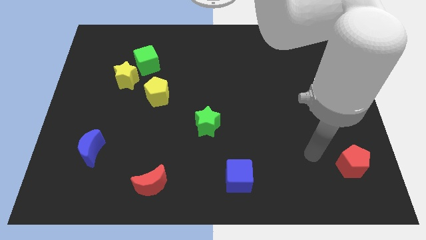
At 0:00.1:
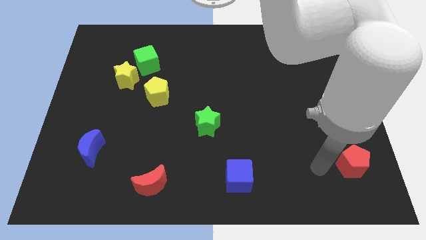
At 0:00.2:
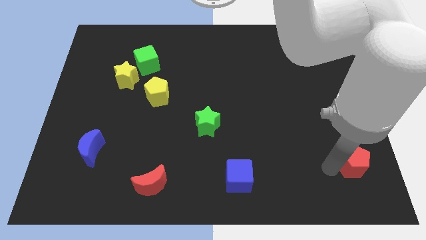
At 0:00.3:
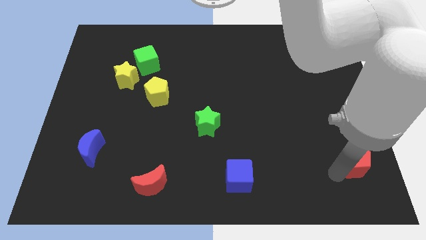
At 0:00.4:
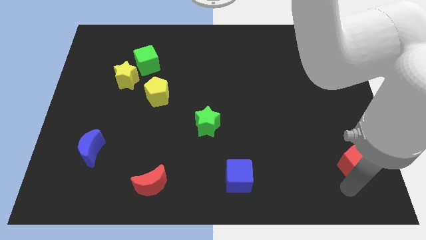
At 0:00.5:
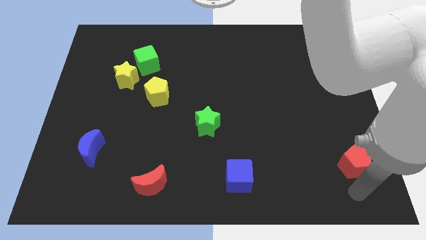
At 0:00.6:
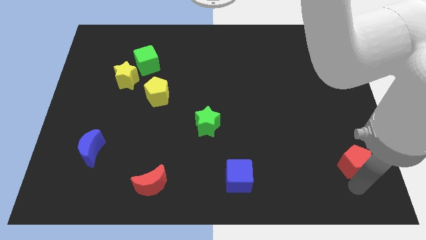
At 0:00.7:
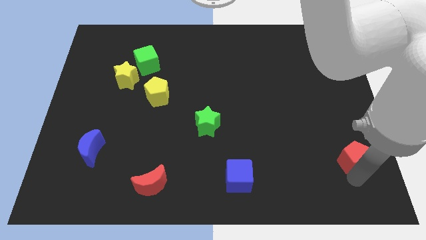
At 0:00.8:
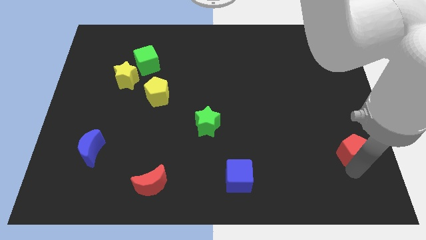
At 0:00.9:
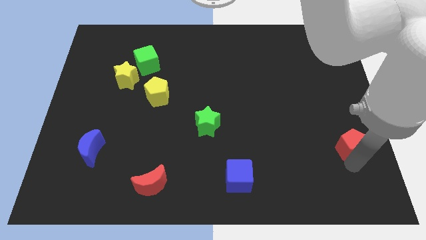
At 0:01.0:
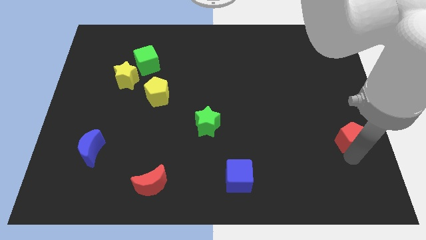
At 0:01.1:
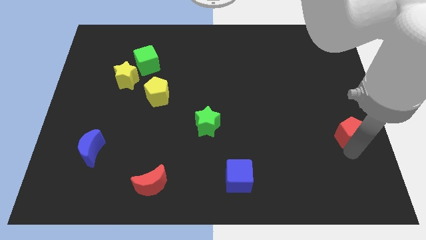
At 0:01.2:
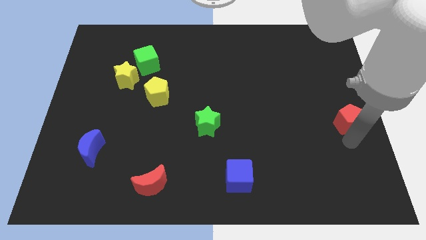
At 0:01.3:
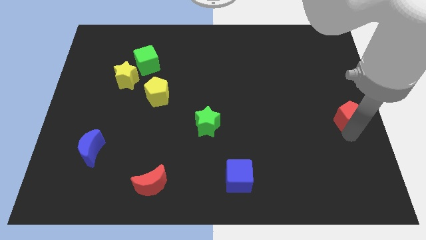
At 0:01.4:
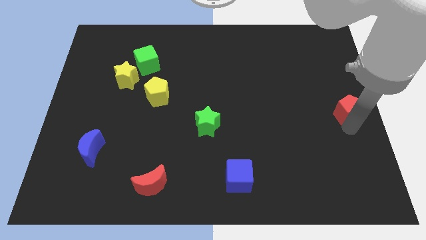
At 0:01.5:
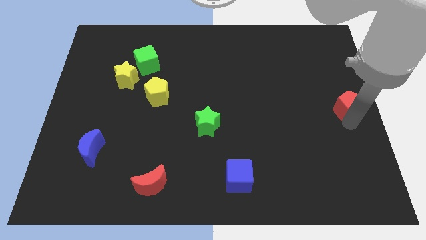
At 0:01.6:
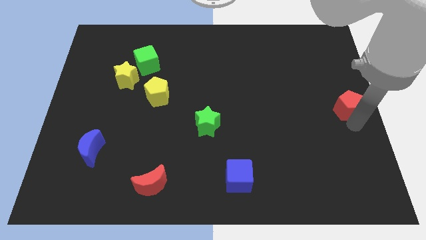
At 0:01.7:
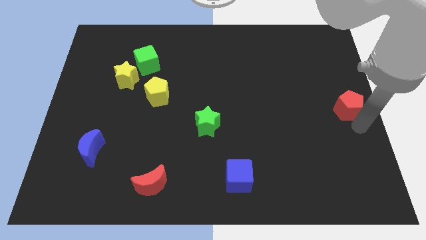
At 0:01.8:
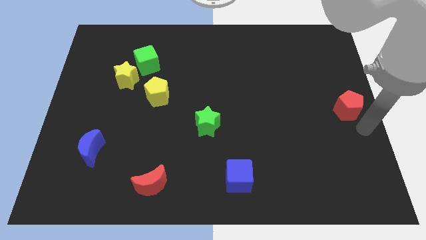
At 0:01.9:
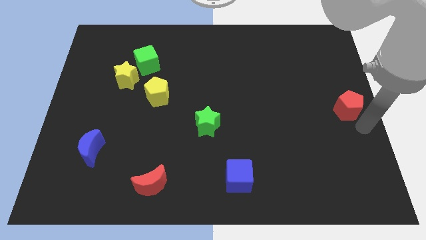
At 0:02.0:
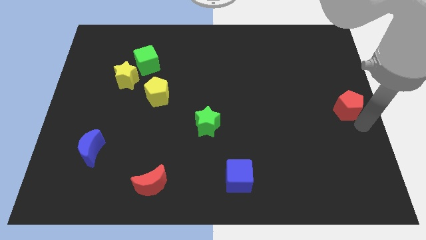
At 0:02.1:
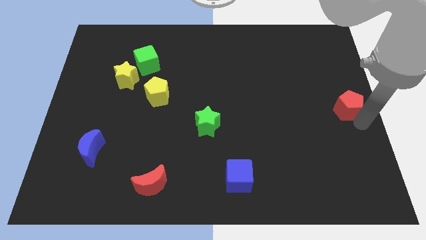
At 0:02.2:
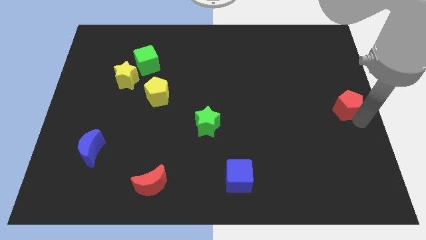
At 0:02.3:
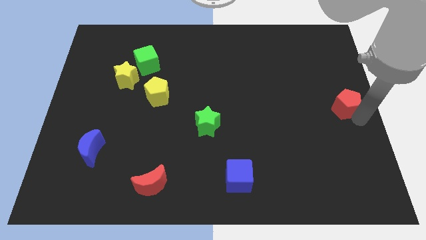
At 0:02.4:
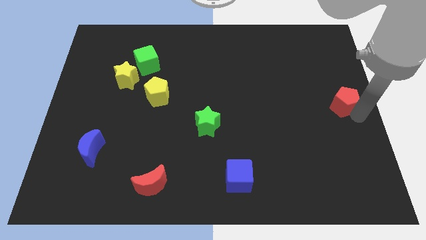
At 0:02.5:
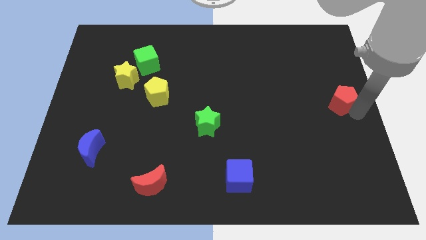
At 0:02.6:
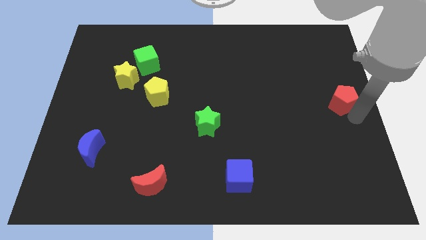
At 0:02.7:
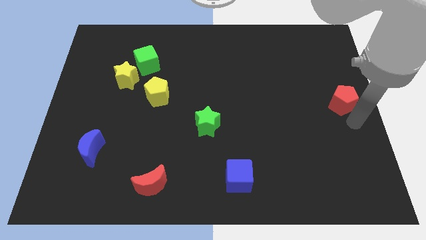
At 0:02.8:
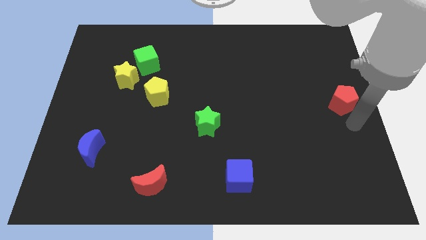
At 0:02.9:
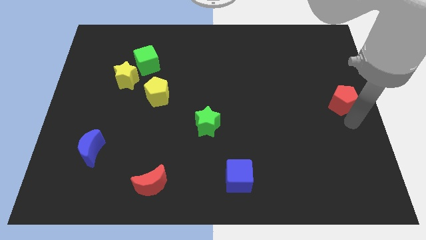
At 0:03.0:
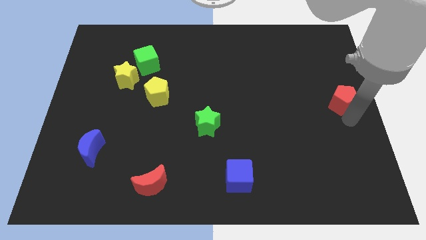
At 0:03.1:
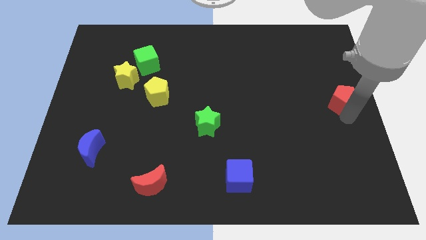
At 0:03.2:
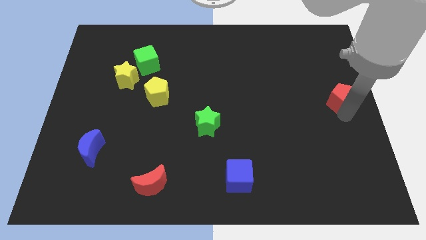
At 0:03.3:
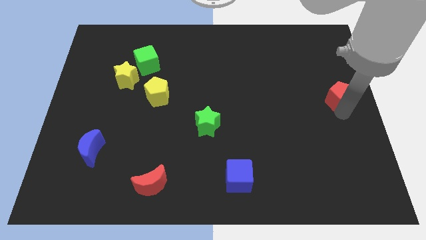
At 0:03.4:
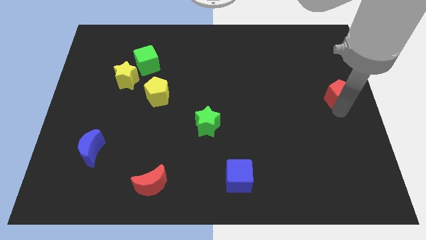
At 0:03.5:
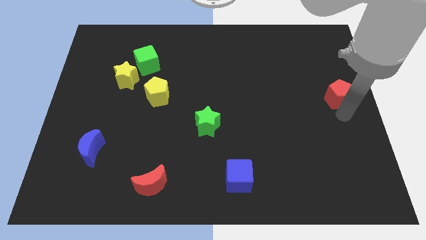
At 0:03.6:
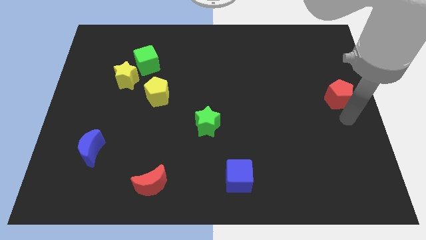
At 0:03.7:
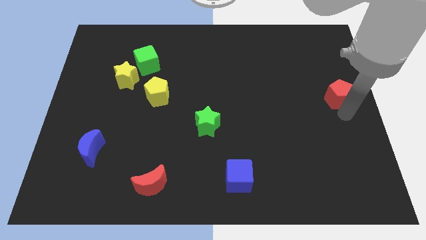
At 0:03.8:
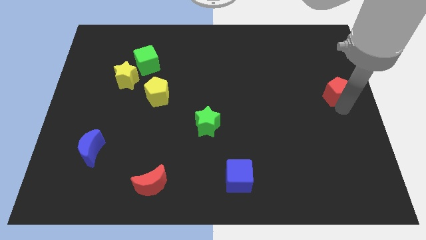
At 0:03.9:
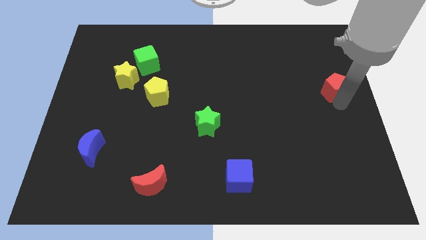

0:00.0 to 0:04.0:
slide the red pentagon up

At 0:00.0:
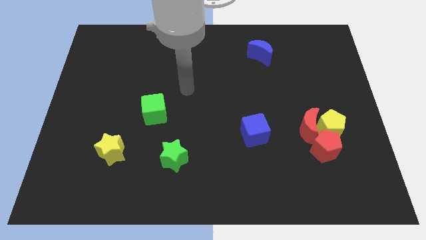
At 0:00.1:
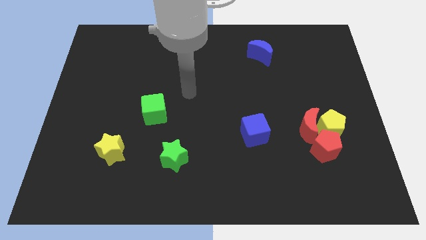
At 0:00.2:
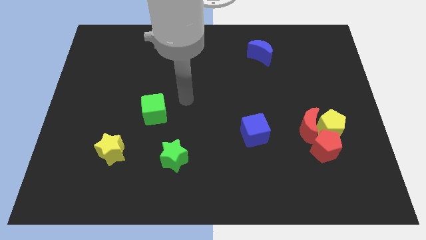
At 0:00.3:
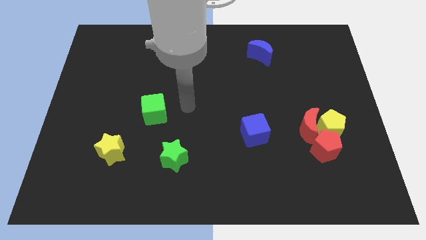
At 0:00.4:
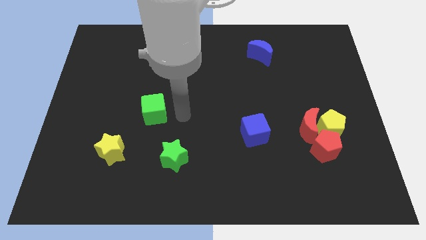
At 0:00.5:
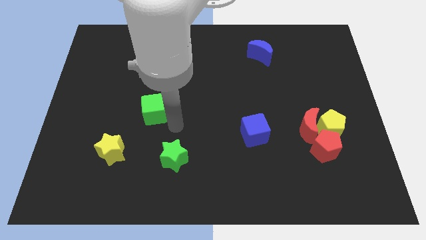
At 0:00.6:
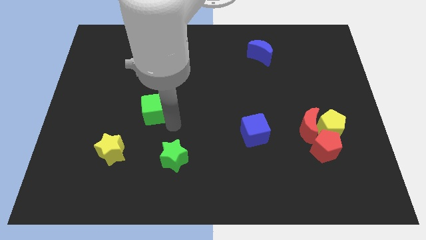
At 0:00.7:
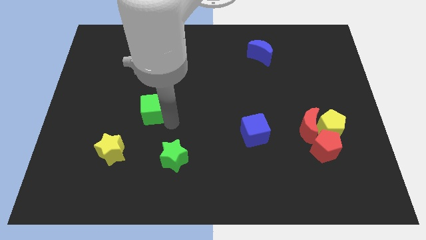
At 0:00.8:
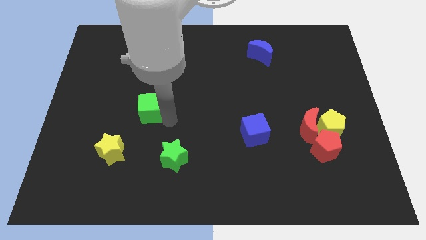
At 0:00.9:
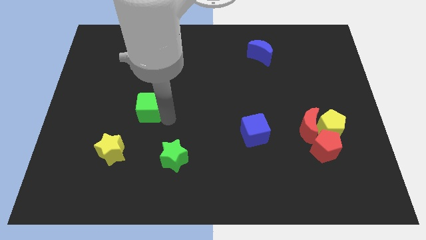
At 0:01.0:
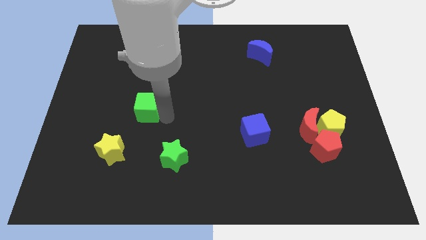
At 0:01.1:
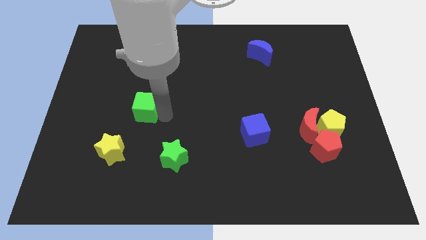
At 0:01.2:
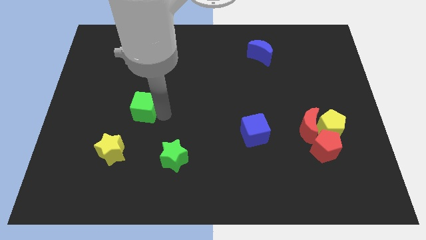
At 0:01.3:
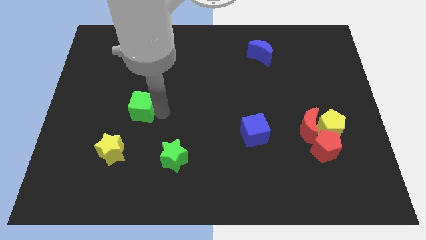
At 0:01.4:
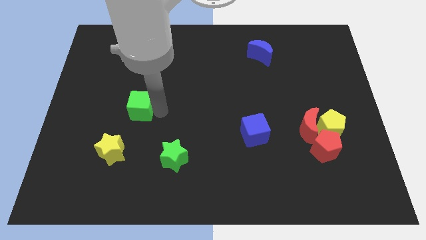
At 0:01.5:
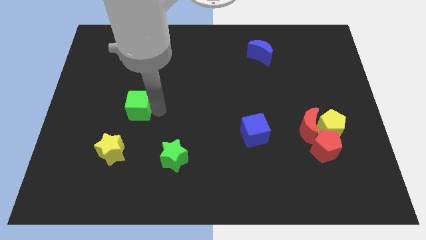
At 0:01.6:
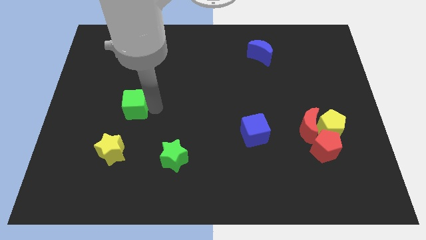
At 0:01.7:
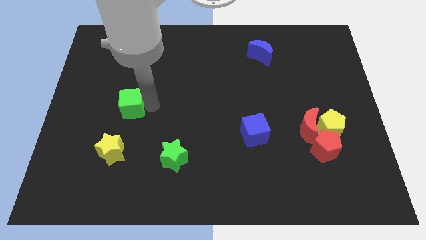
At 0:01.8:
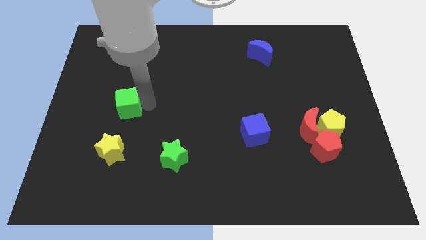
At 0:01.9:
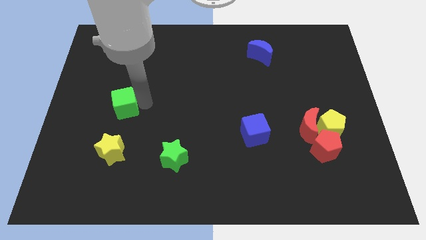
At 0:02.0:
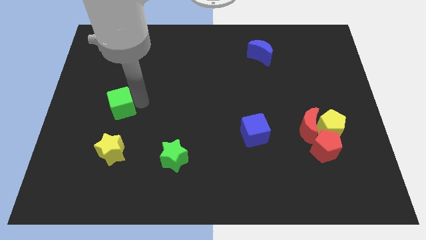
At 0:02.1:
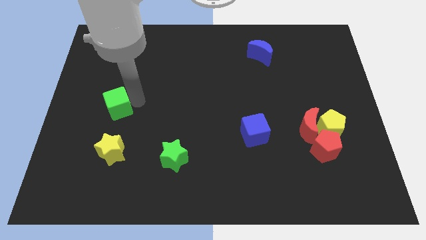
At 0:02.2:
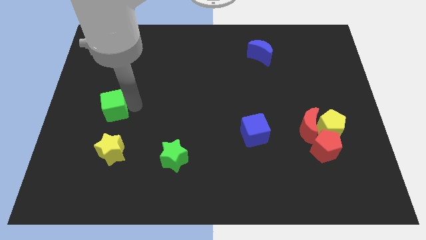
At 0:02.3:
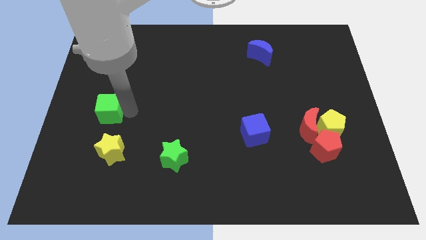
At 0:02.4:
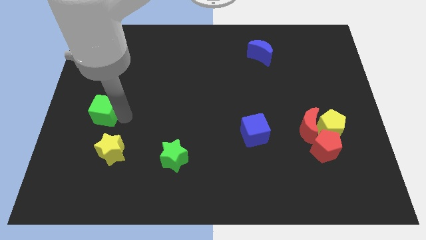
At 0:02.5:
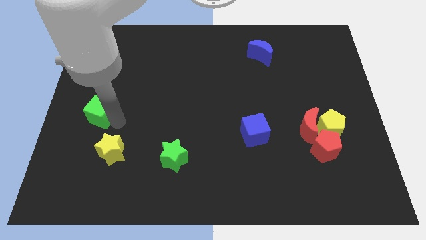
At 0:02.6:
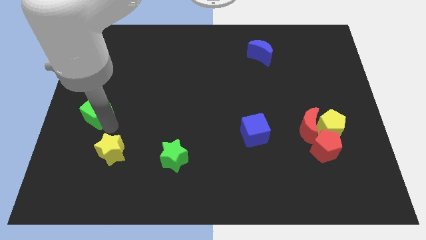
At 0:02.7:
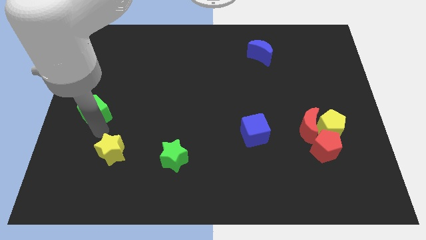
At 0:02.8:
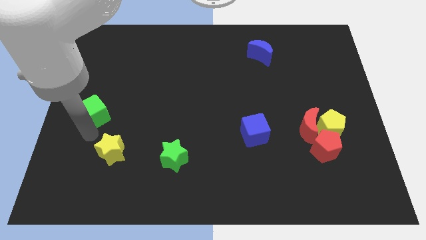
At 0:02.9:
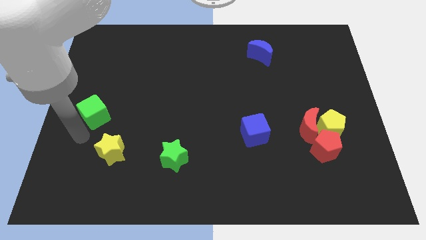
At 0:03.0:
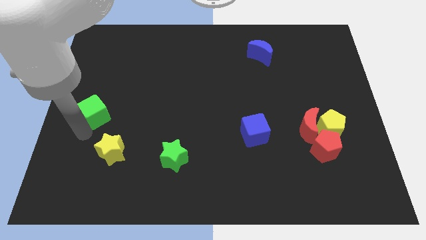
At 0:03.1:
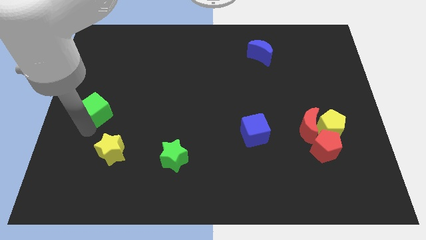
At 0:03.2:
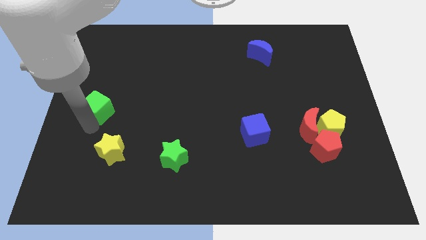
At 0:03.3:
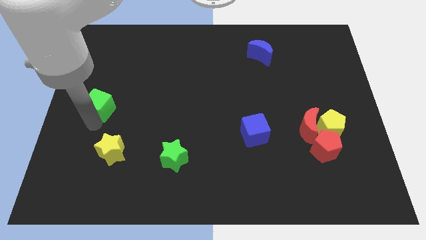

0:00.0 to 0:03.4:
push the green cube somewhat up and left

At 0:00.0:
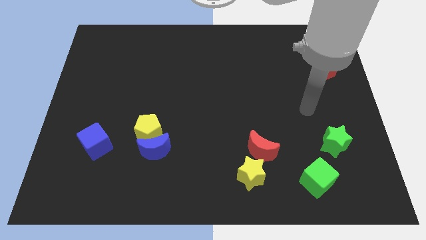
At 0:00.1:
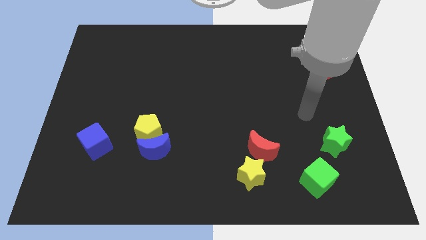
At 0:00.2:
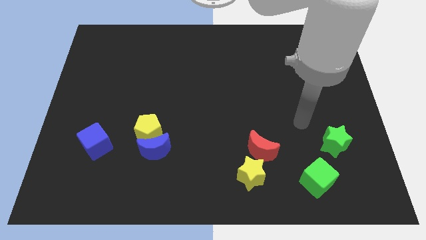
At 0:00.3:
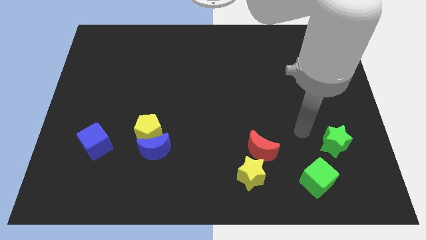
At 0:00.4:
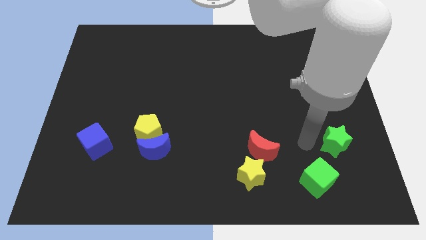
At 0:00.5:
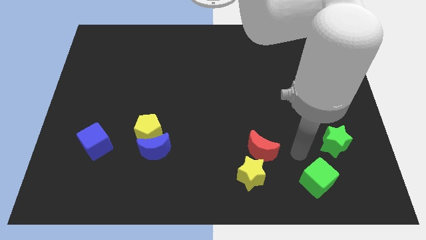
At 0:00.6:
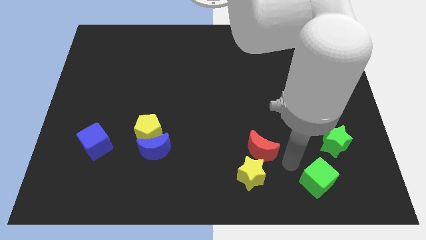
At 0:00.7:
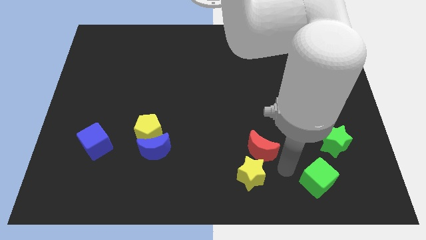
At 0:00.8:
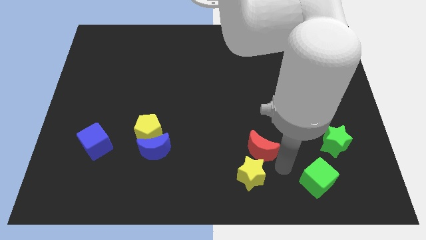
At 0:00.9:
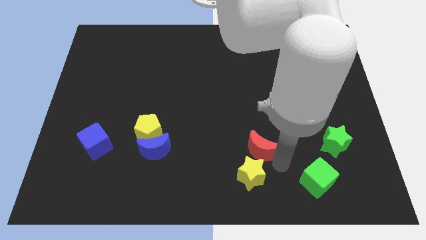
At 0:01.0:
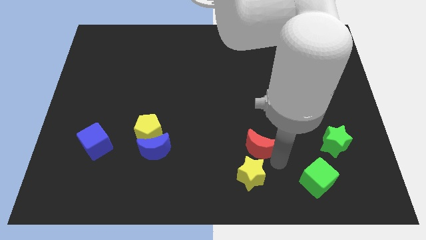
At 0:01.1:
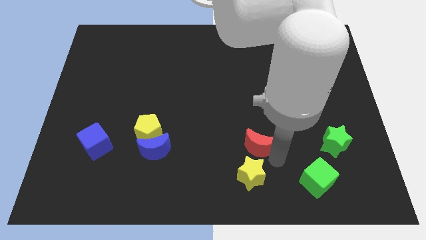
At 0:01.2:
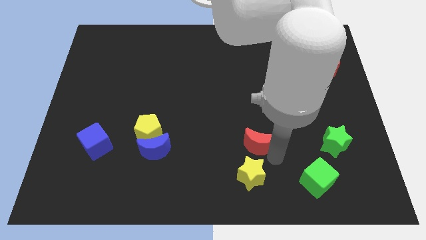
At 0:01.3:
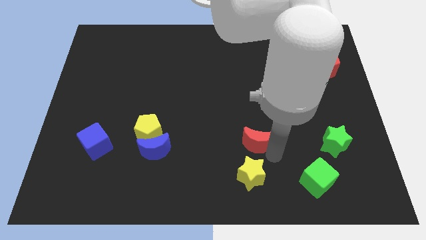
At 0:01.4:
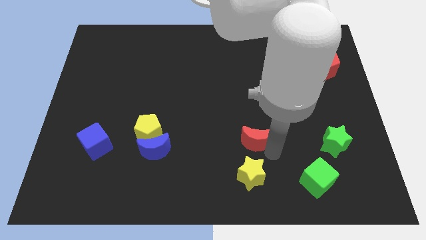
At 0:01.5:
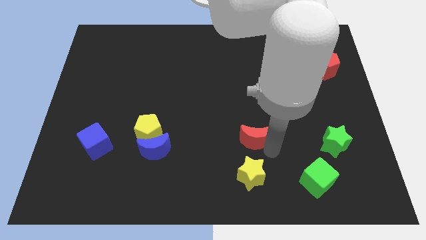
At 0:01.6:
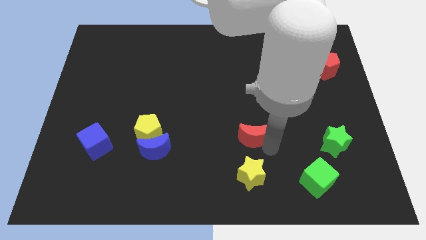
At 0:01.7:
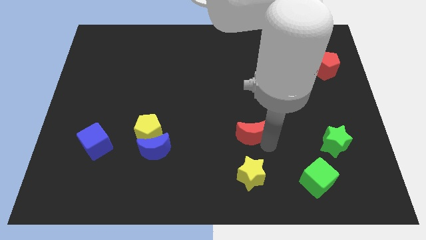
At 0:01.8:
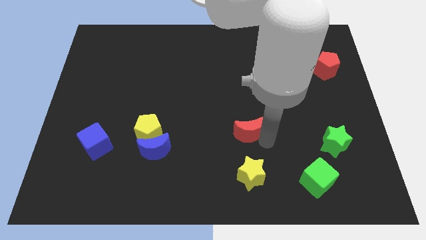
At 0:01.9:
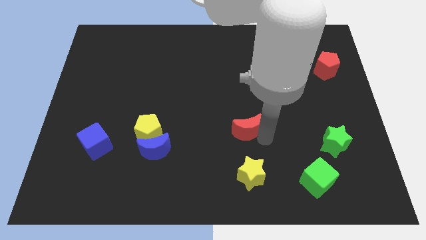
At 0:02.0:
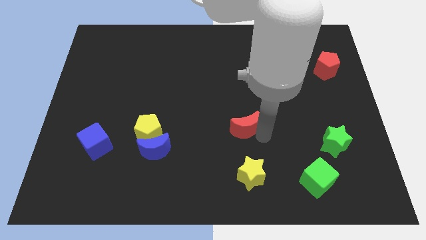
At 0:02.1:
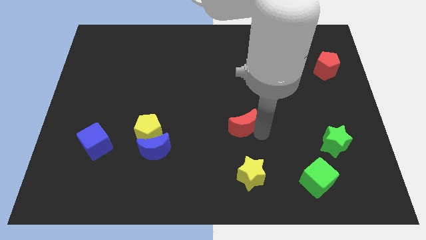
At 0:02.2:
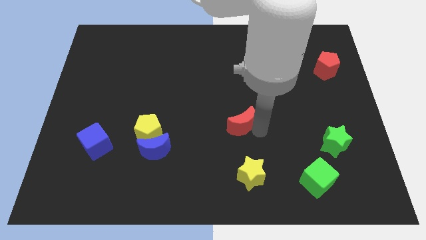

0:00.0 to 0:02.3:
push the red moon a little upwards and to the left
